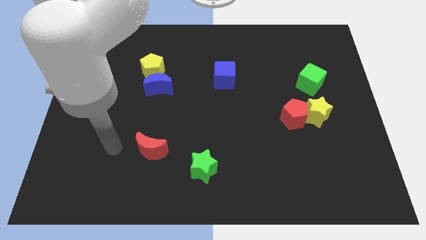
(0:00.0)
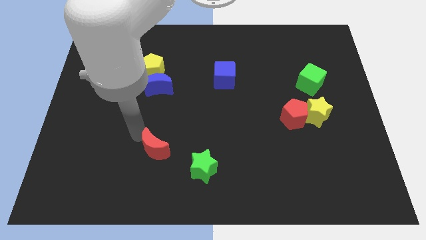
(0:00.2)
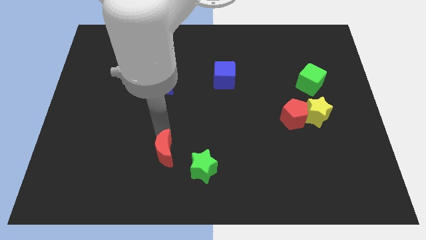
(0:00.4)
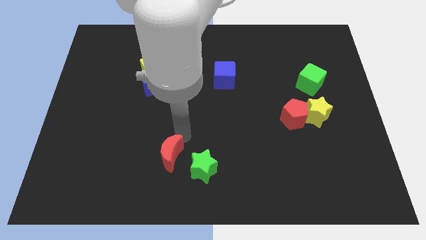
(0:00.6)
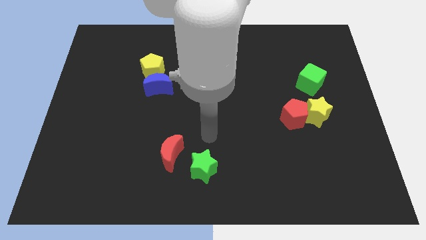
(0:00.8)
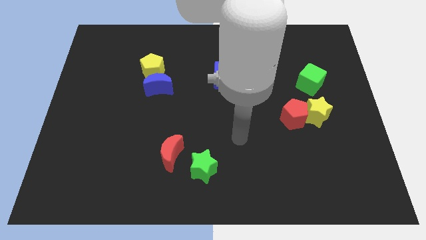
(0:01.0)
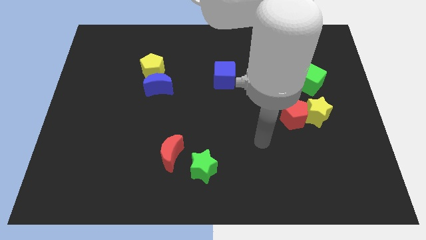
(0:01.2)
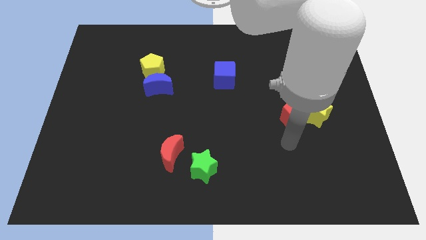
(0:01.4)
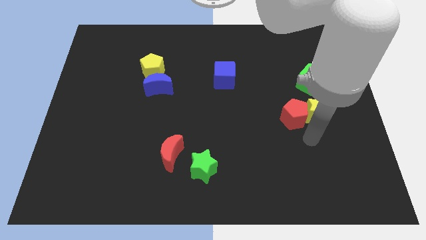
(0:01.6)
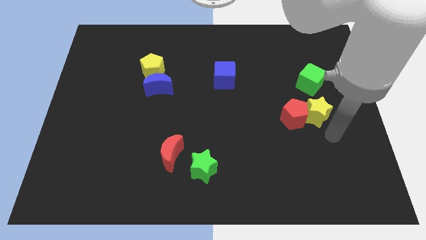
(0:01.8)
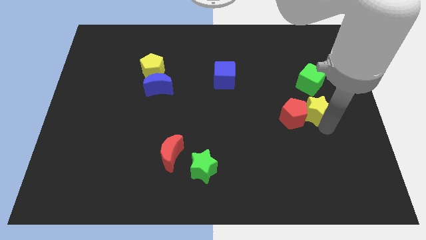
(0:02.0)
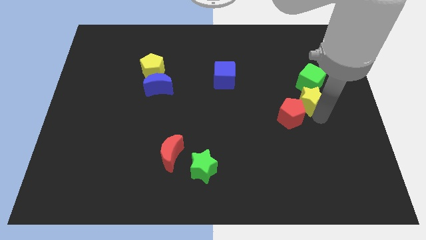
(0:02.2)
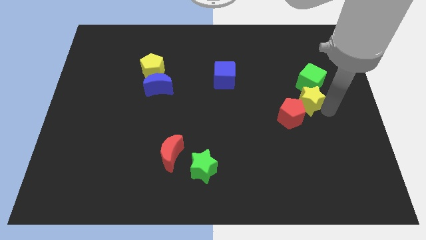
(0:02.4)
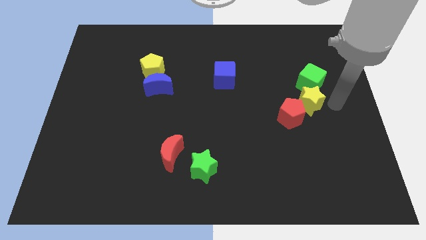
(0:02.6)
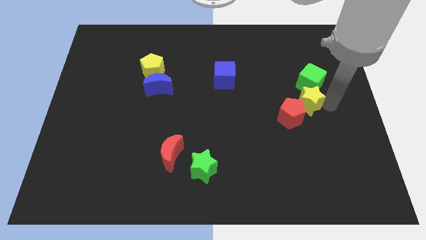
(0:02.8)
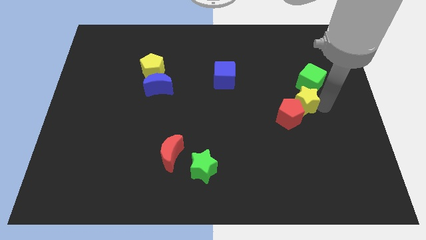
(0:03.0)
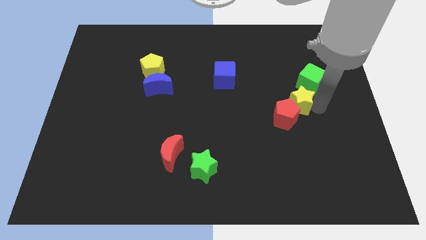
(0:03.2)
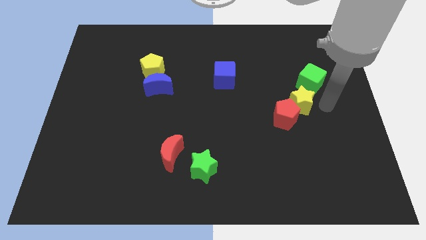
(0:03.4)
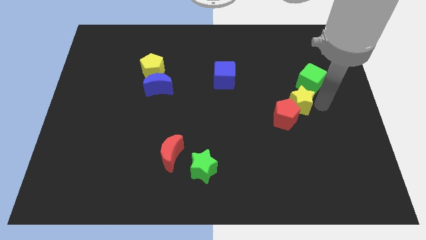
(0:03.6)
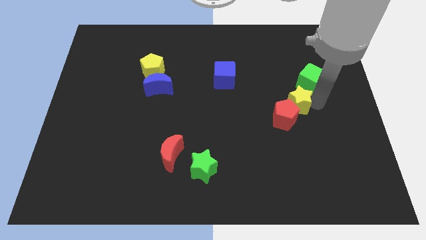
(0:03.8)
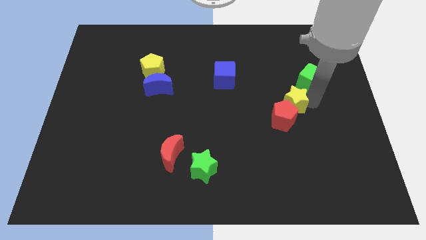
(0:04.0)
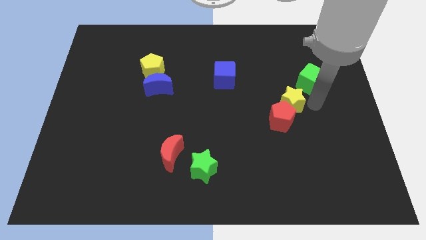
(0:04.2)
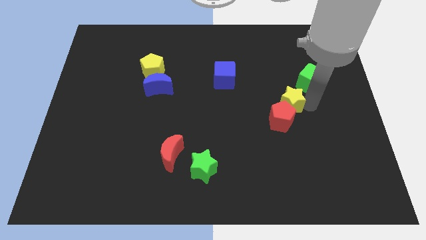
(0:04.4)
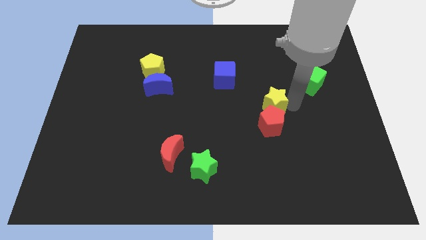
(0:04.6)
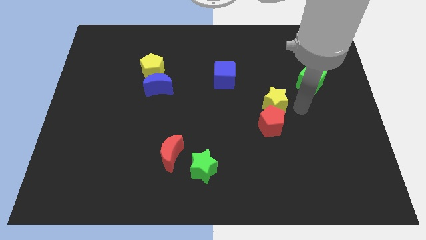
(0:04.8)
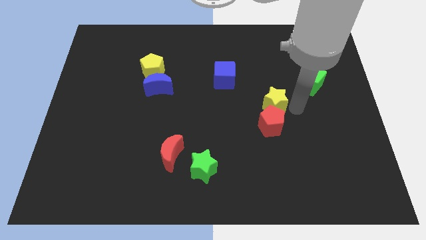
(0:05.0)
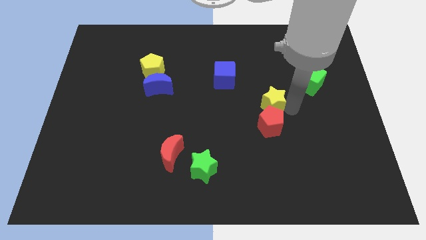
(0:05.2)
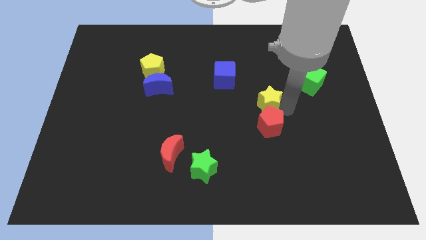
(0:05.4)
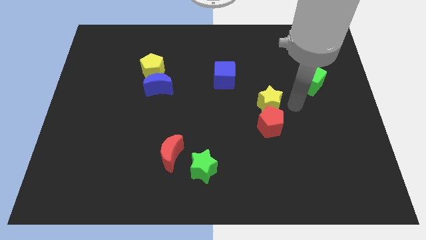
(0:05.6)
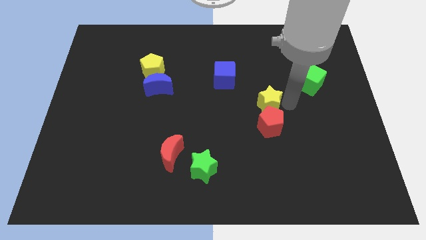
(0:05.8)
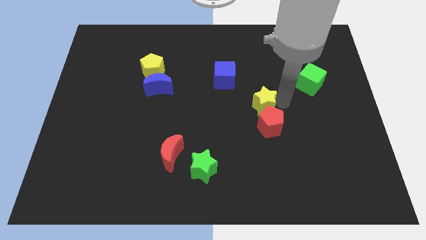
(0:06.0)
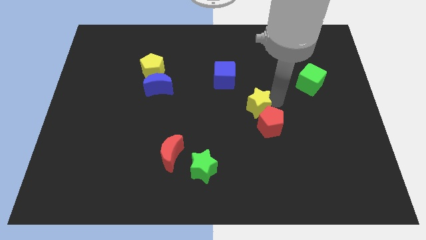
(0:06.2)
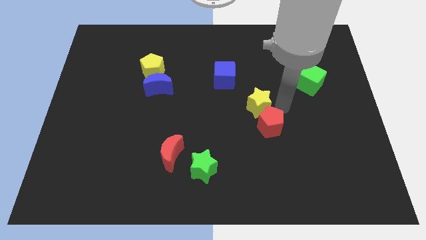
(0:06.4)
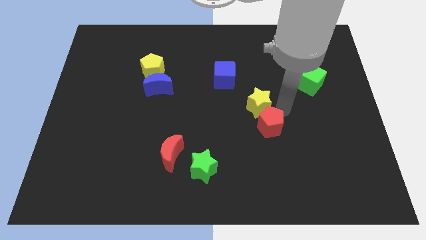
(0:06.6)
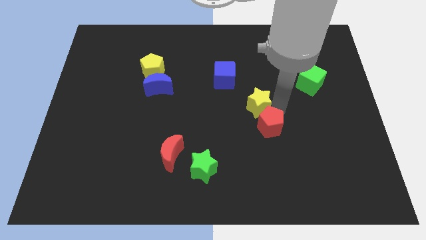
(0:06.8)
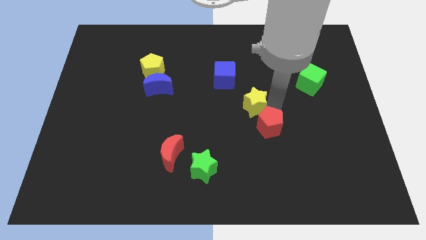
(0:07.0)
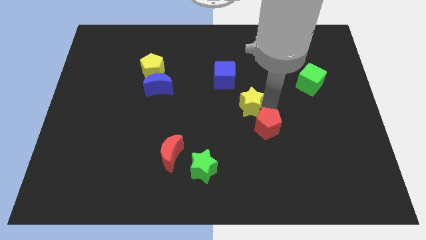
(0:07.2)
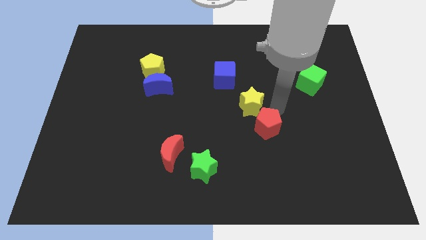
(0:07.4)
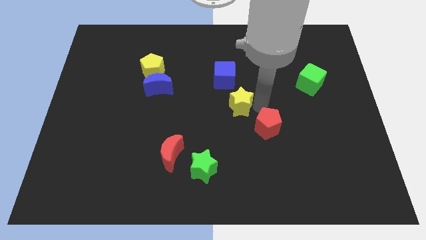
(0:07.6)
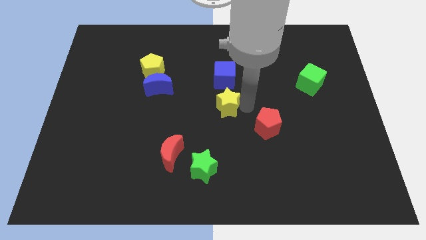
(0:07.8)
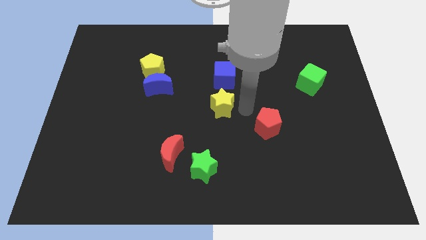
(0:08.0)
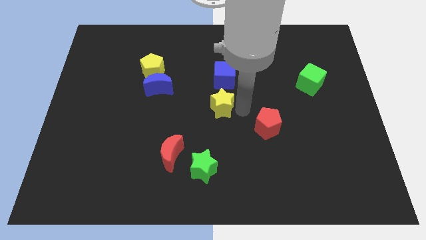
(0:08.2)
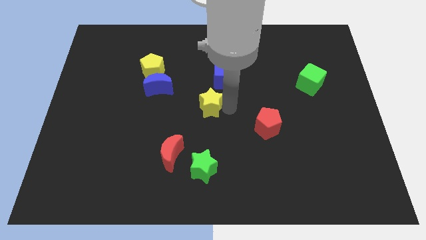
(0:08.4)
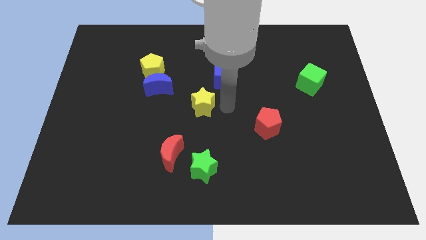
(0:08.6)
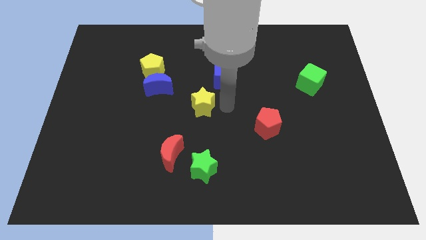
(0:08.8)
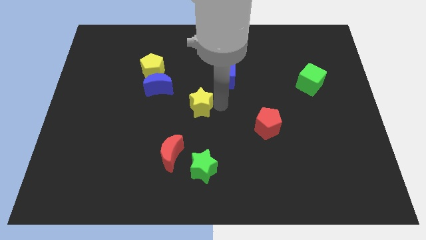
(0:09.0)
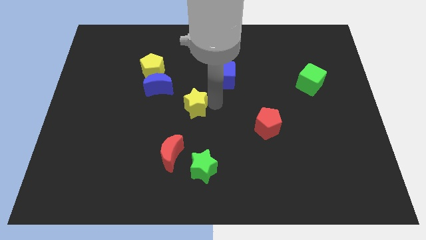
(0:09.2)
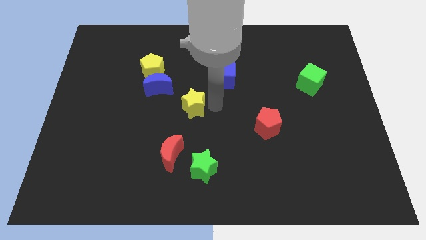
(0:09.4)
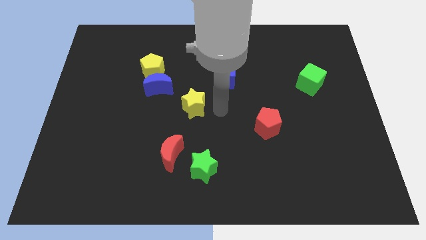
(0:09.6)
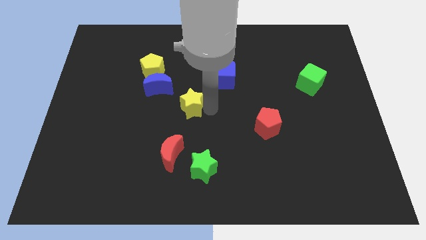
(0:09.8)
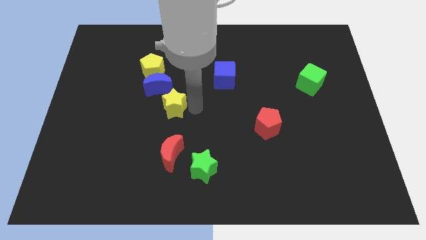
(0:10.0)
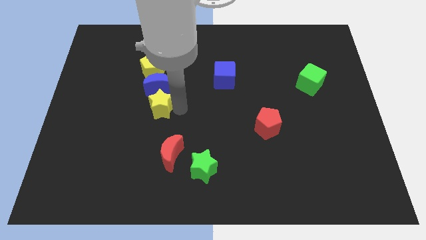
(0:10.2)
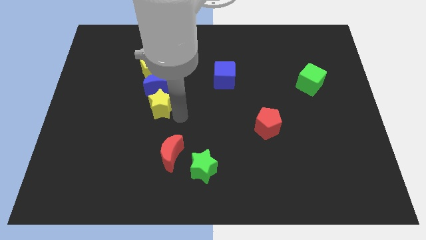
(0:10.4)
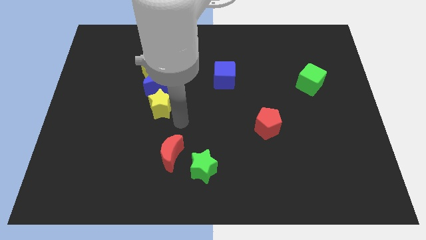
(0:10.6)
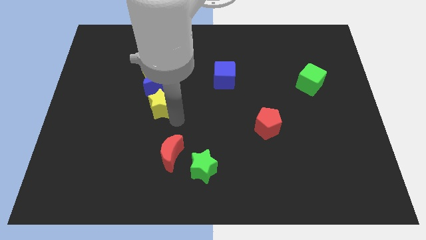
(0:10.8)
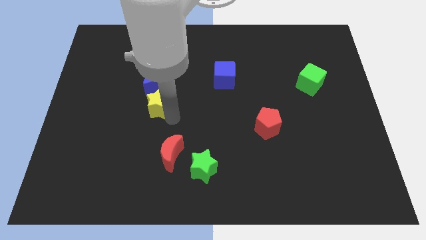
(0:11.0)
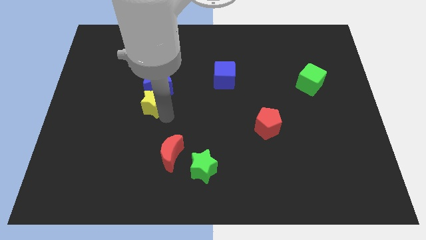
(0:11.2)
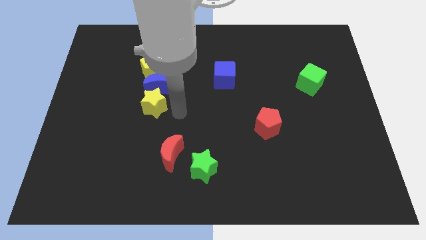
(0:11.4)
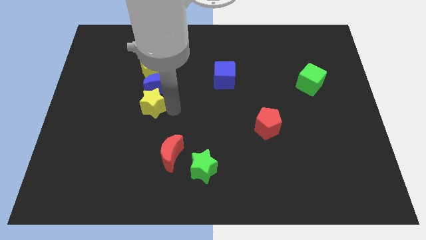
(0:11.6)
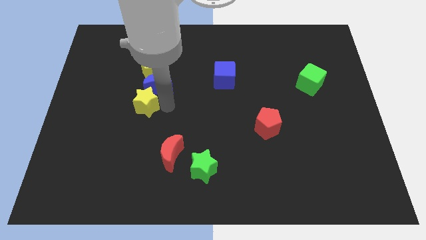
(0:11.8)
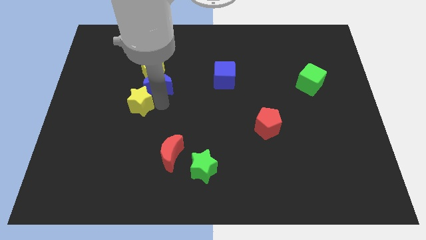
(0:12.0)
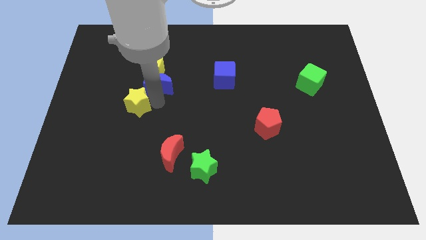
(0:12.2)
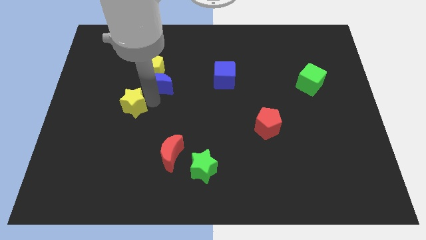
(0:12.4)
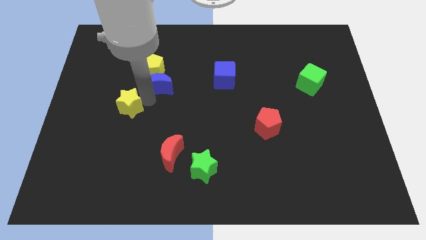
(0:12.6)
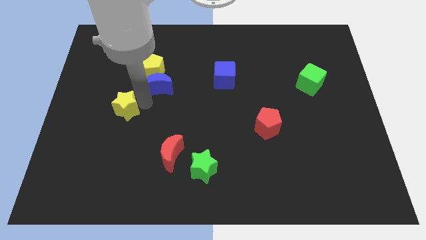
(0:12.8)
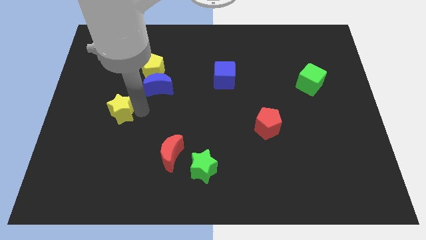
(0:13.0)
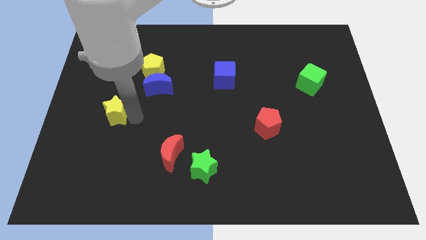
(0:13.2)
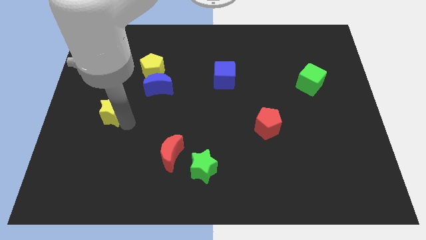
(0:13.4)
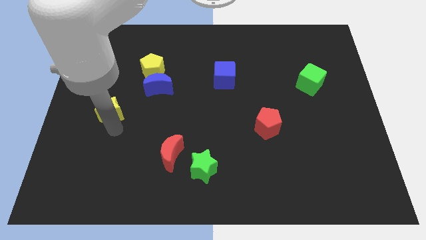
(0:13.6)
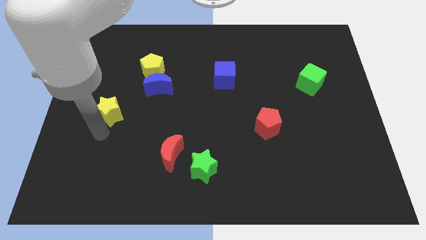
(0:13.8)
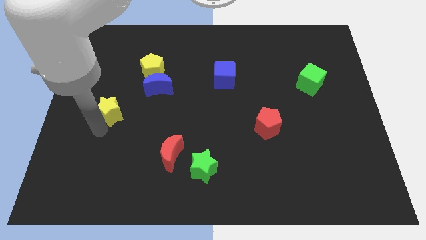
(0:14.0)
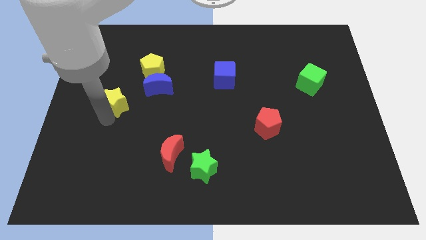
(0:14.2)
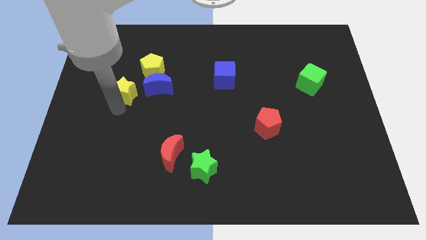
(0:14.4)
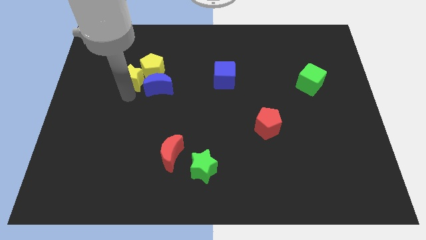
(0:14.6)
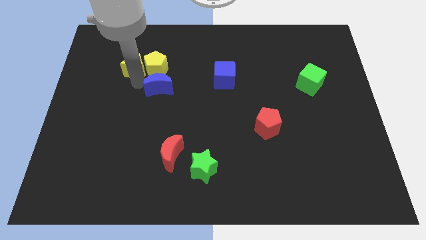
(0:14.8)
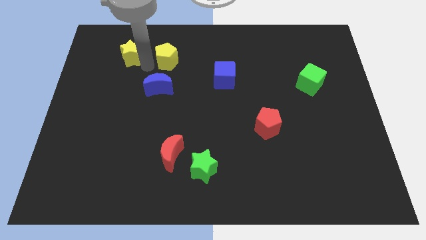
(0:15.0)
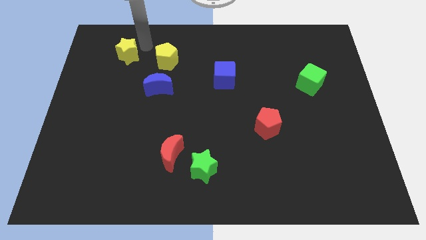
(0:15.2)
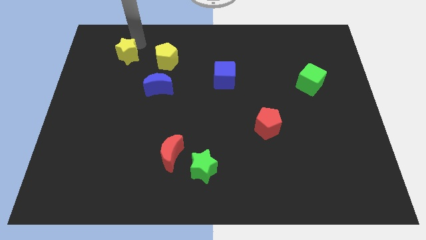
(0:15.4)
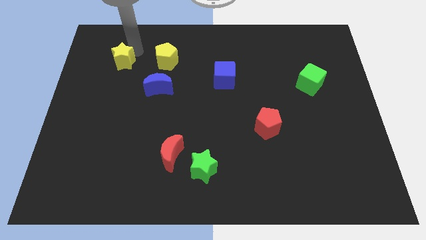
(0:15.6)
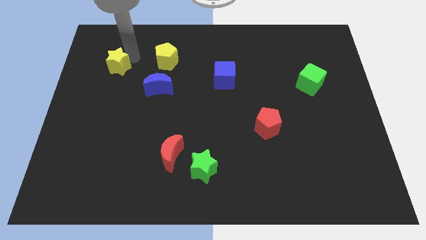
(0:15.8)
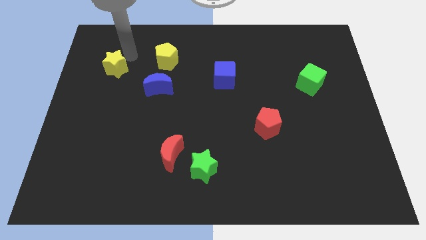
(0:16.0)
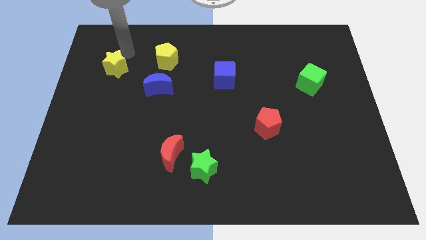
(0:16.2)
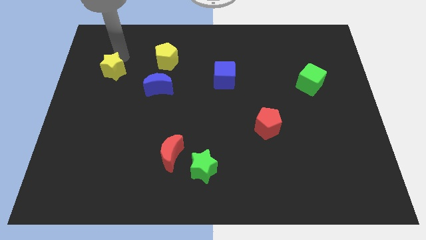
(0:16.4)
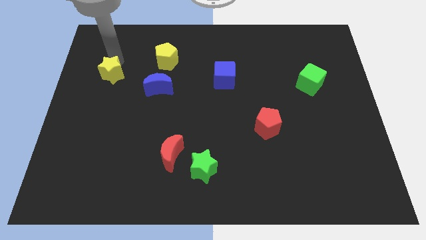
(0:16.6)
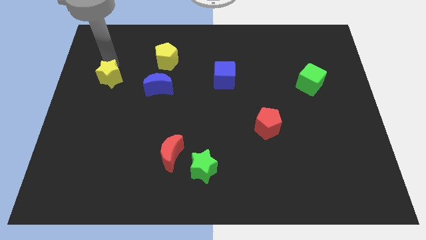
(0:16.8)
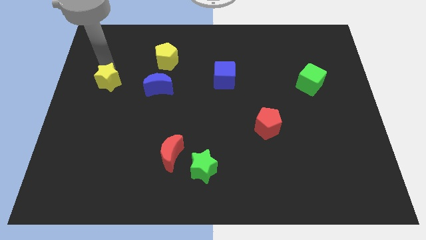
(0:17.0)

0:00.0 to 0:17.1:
move the yellow star to the center left
